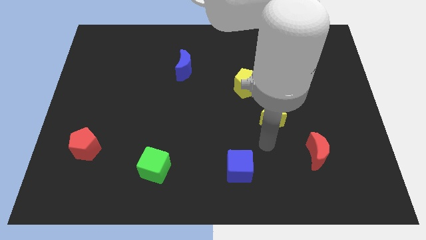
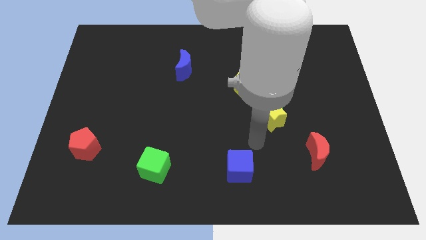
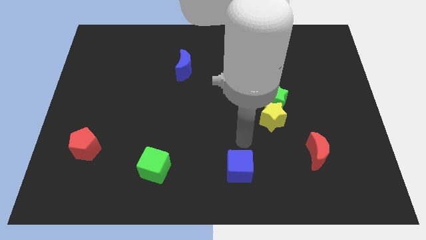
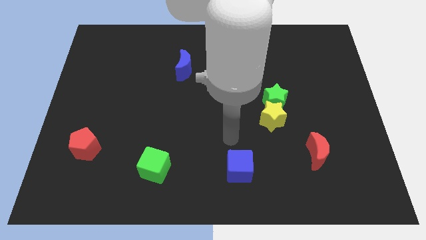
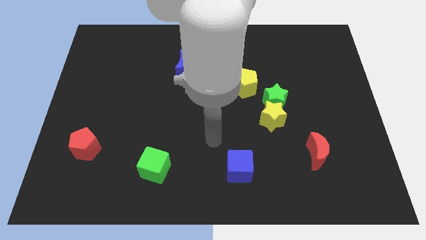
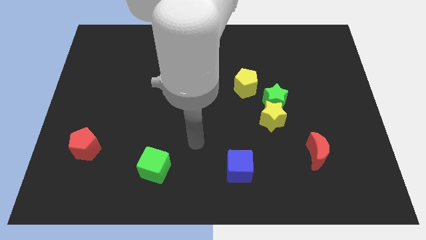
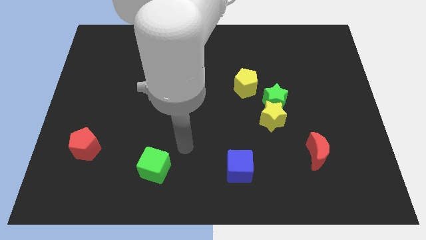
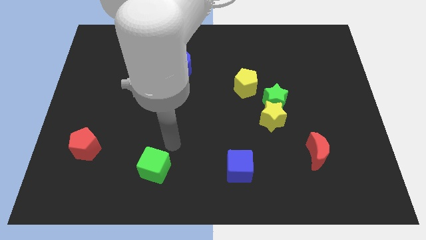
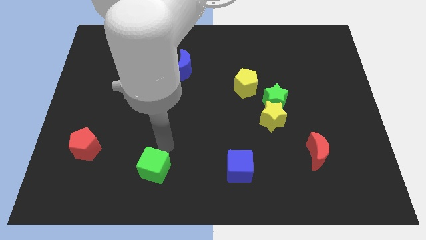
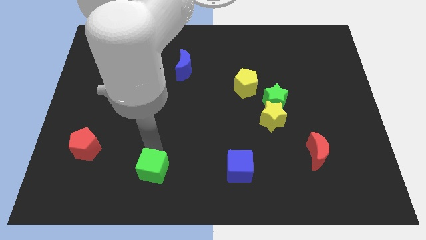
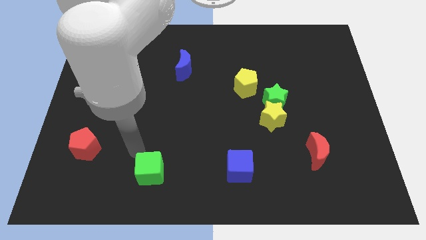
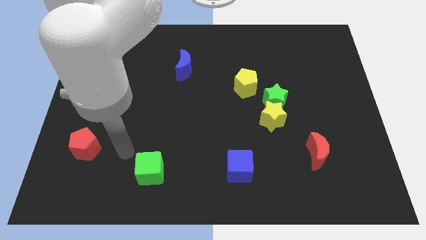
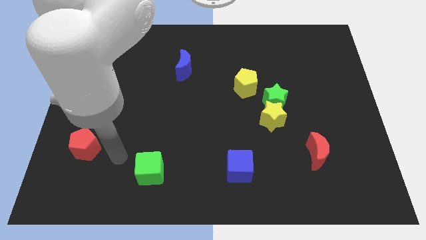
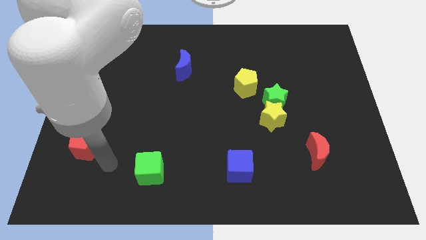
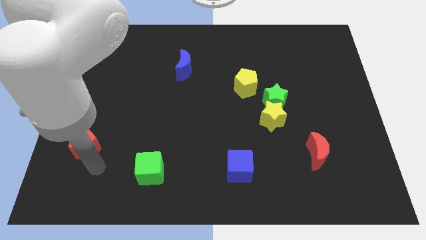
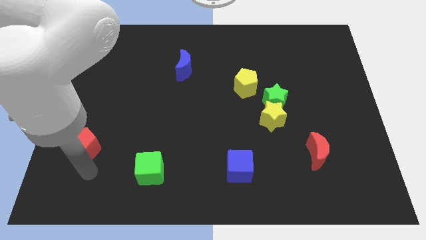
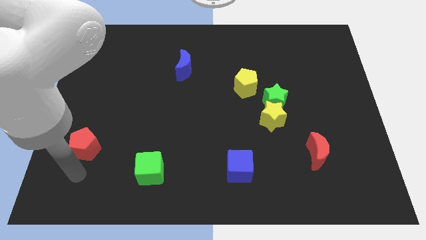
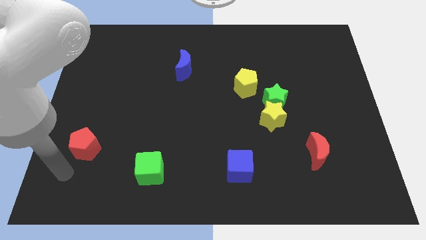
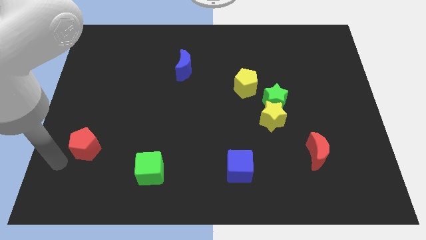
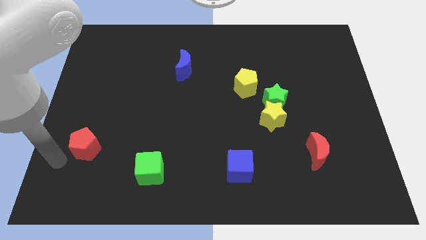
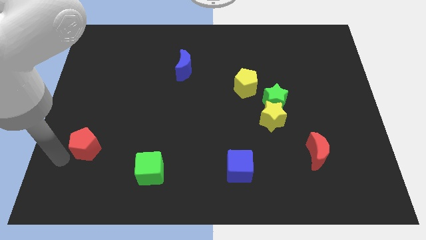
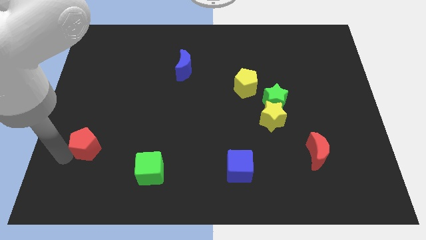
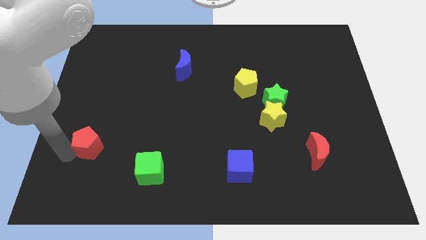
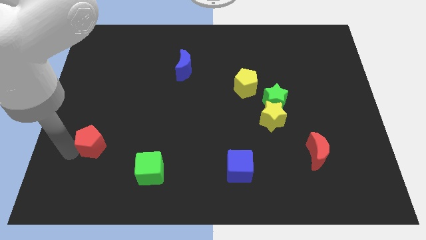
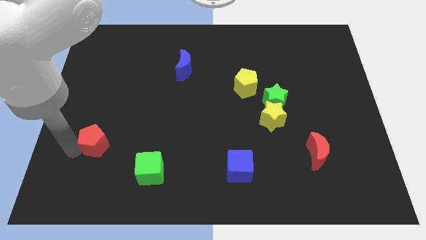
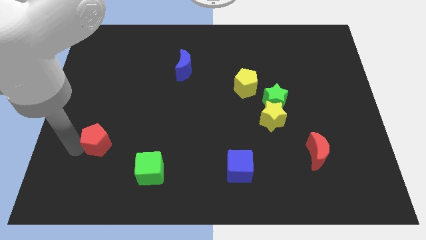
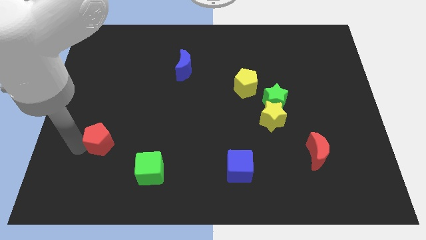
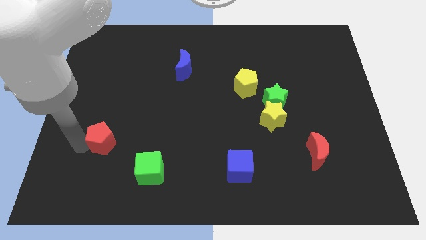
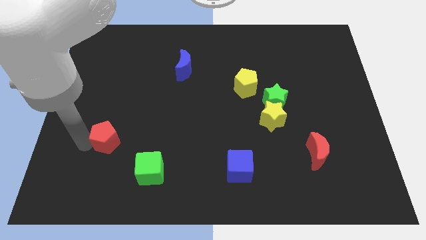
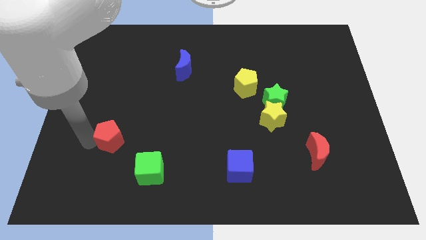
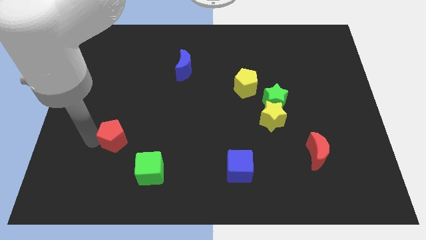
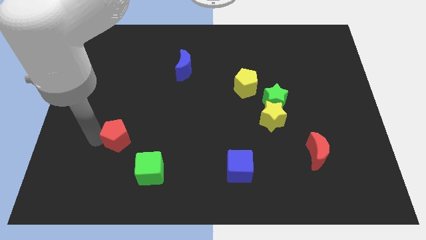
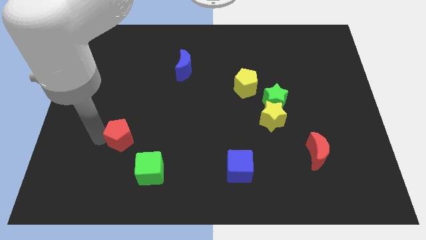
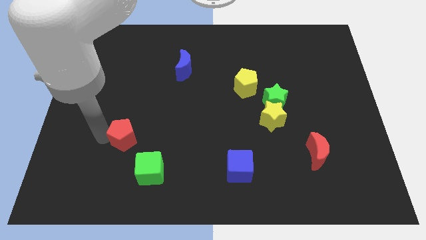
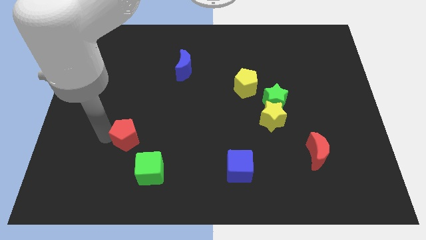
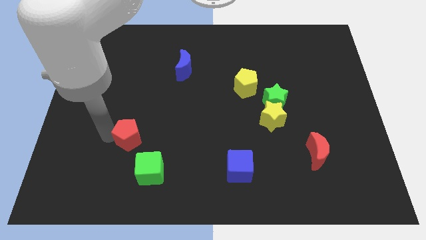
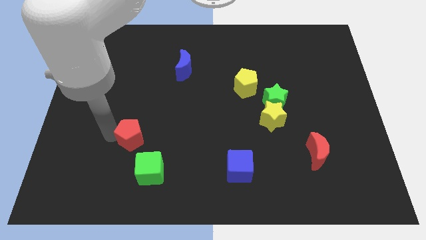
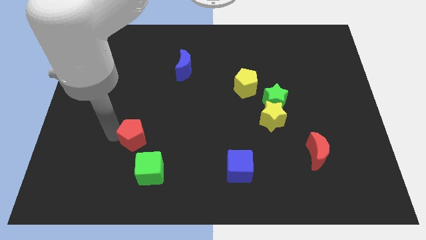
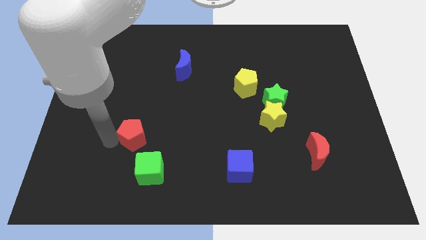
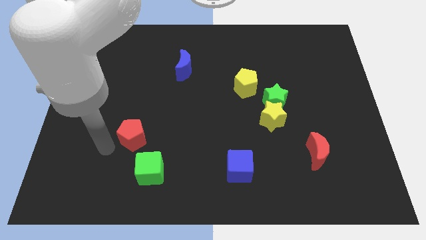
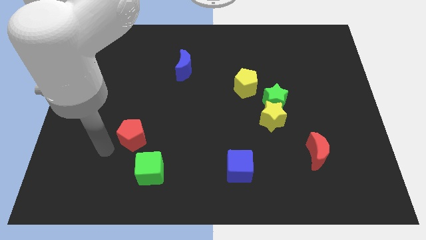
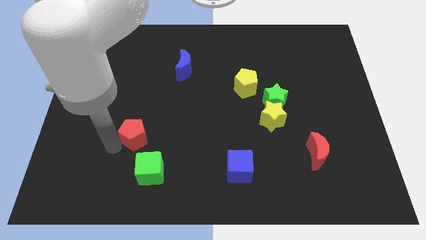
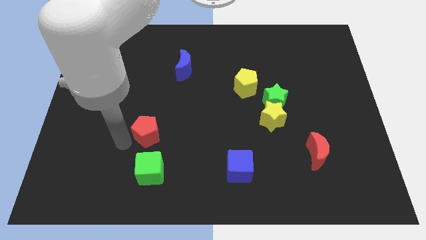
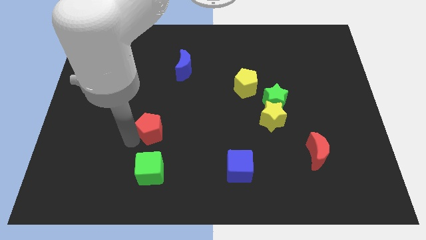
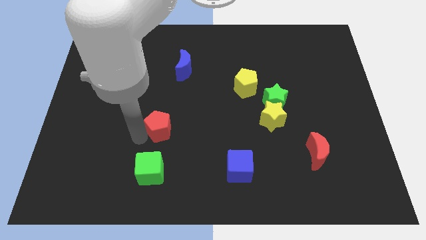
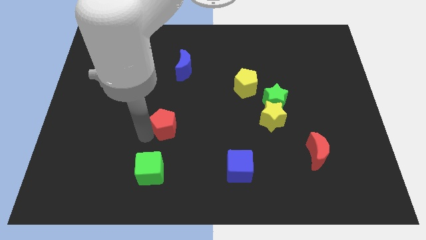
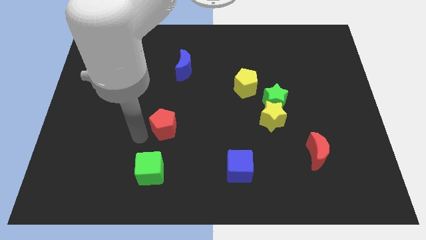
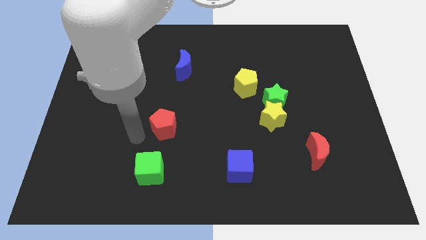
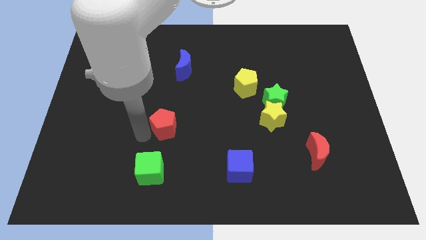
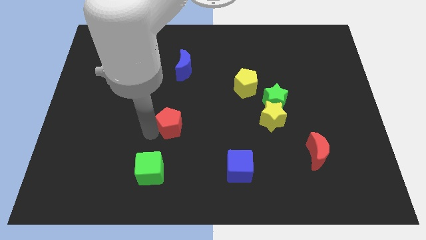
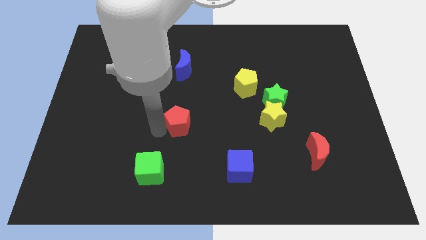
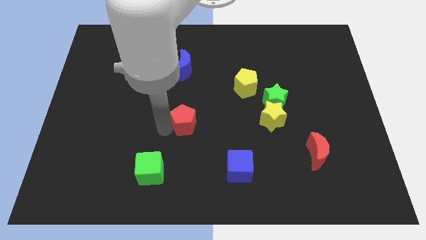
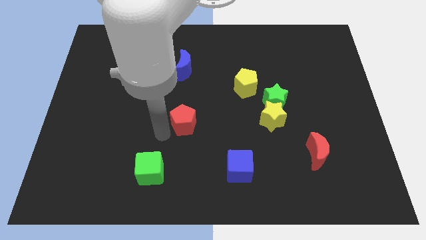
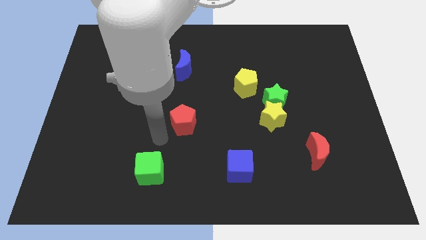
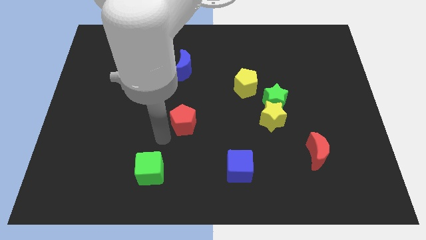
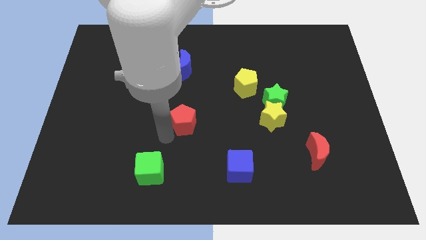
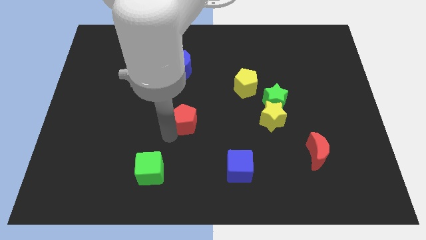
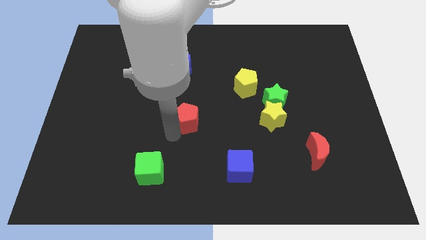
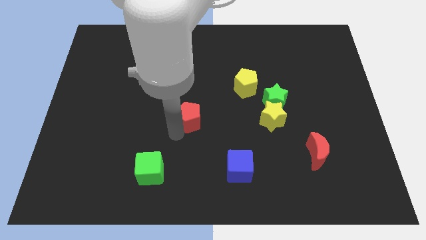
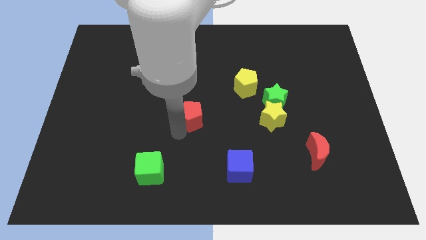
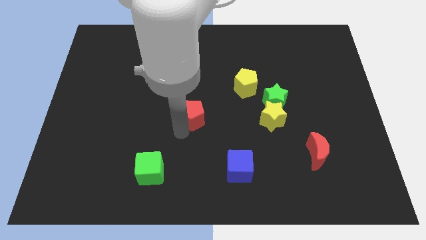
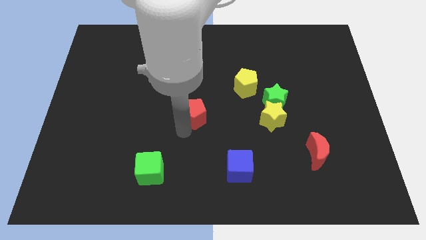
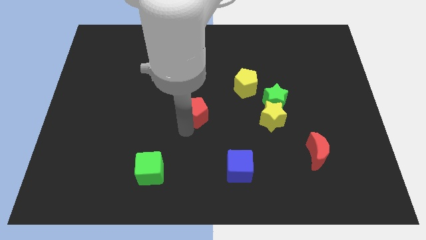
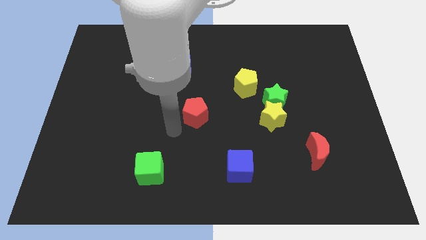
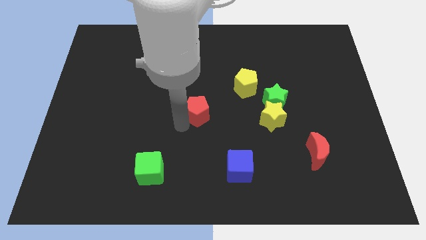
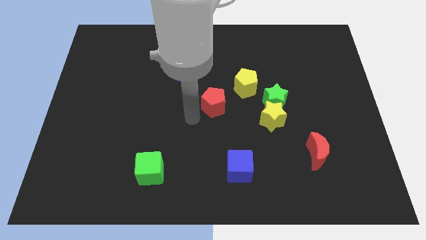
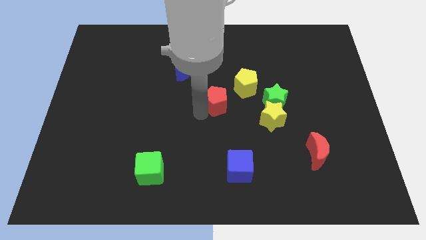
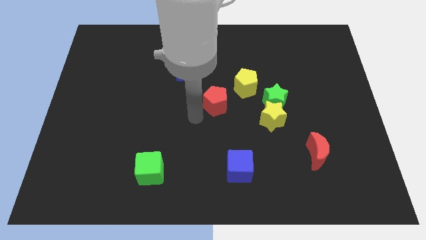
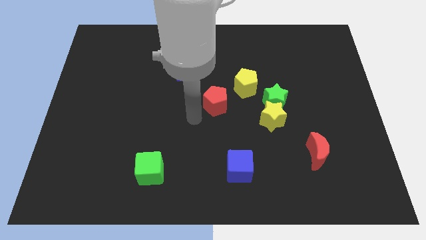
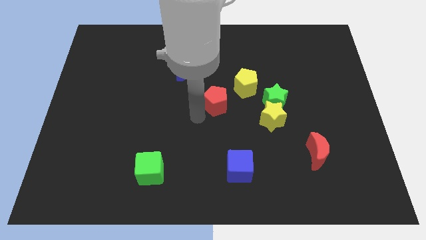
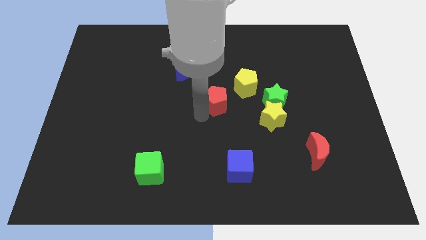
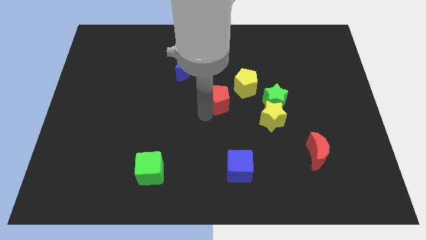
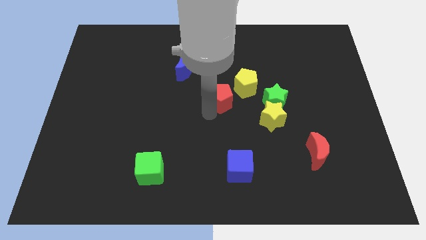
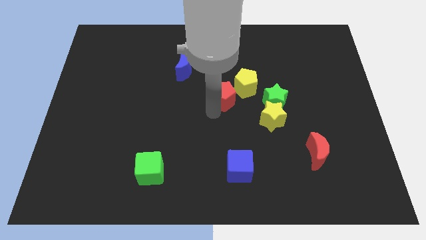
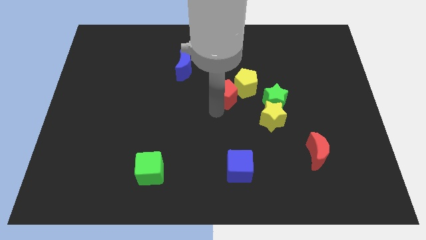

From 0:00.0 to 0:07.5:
slide the red pentagon close to the yellow pentagon
